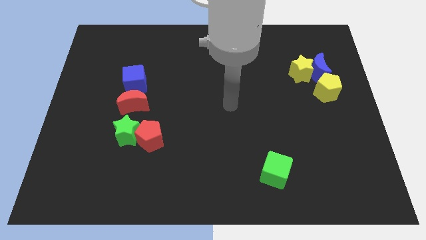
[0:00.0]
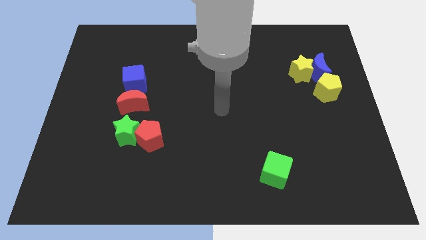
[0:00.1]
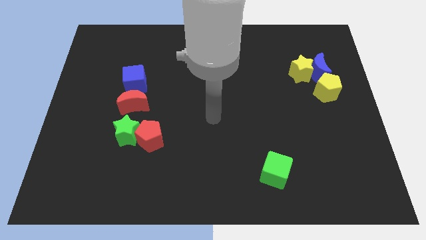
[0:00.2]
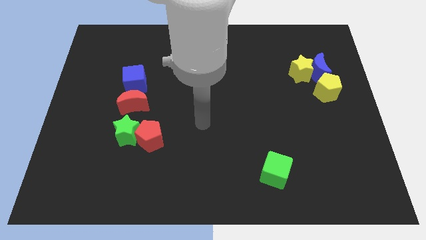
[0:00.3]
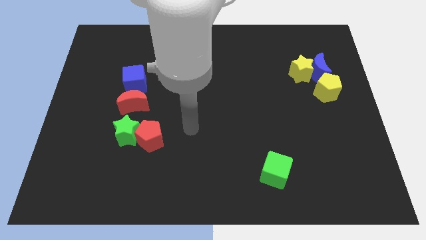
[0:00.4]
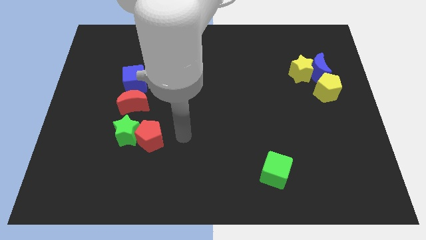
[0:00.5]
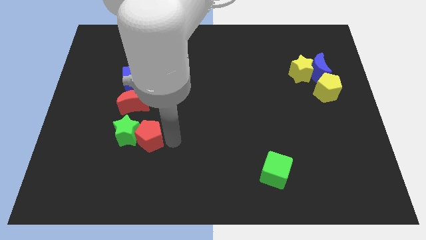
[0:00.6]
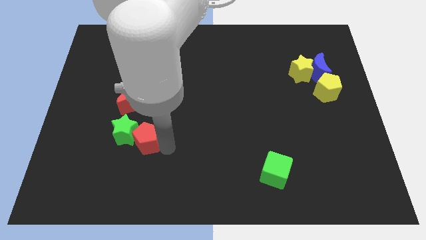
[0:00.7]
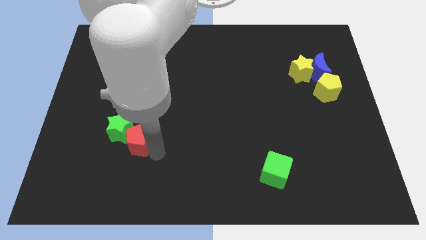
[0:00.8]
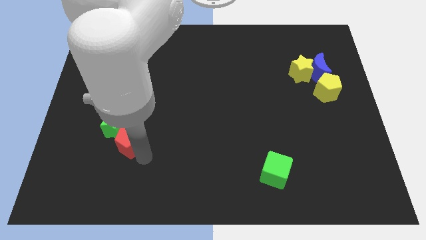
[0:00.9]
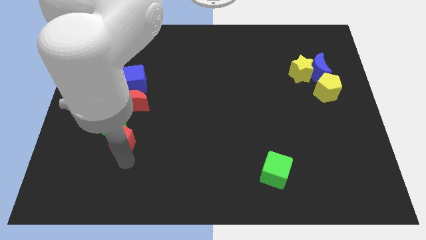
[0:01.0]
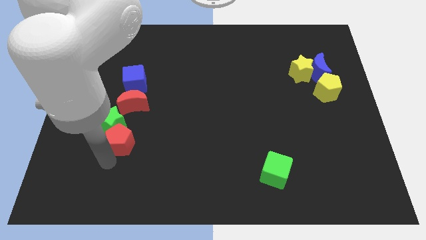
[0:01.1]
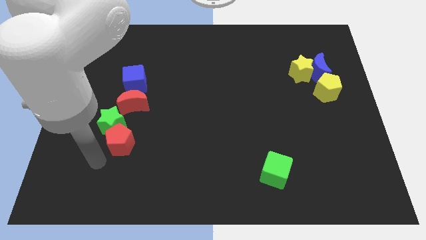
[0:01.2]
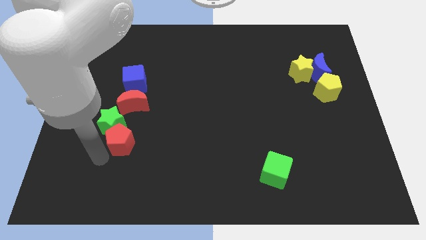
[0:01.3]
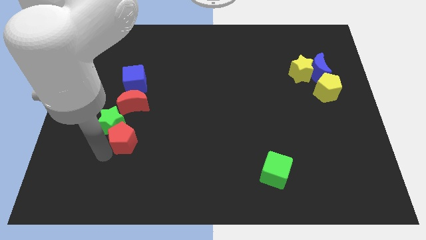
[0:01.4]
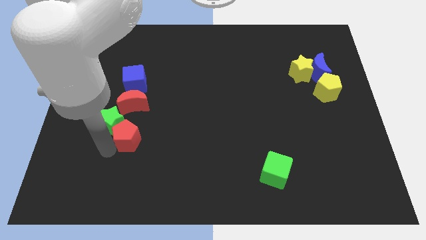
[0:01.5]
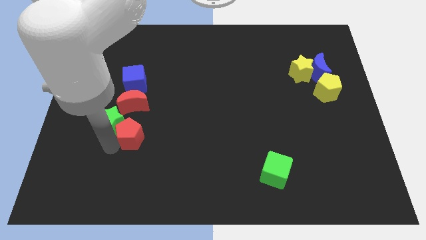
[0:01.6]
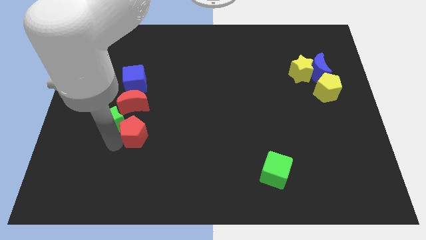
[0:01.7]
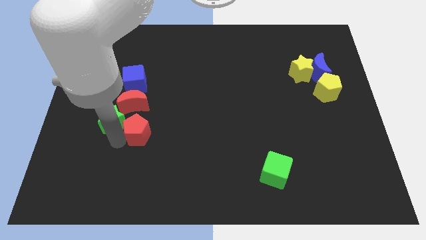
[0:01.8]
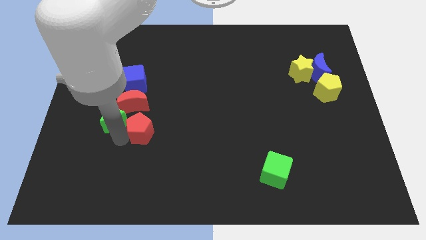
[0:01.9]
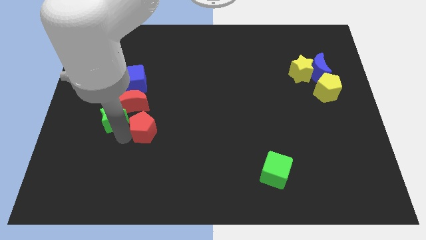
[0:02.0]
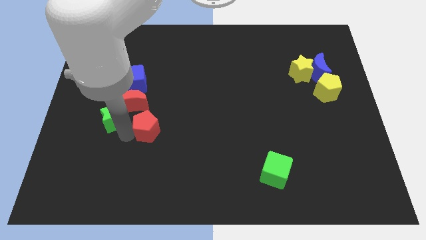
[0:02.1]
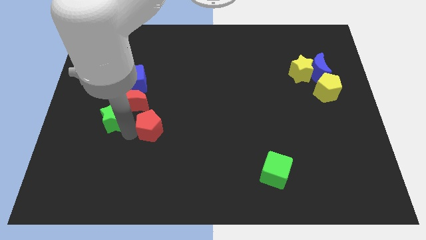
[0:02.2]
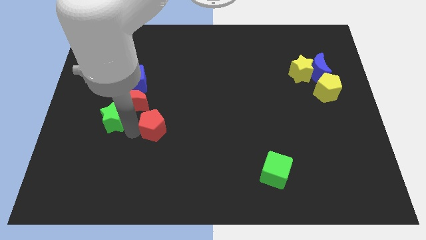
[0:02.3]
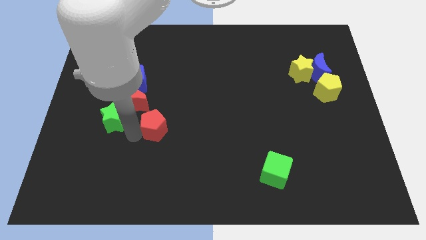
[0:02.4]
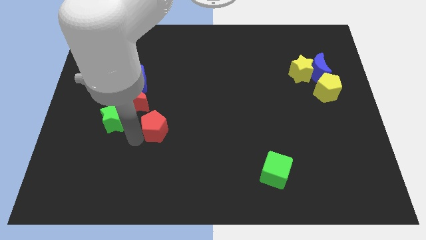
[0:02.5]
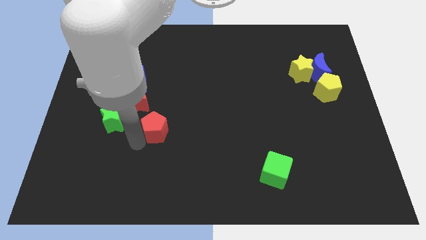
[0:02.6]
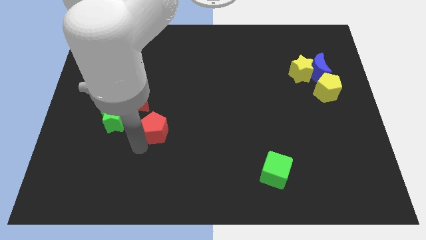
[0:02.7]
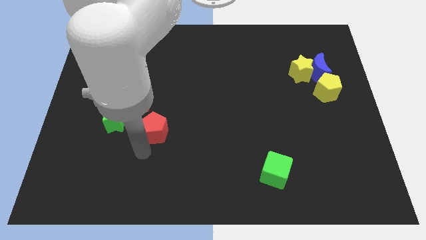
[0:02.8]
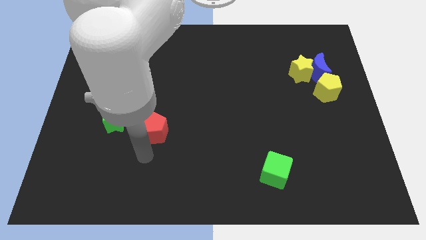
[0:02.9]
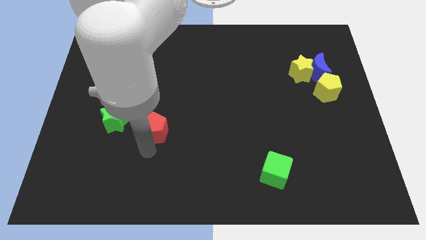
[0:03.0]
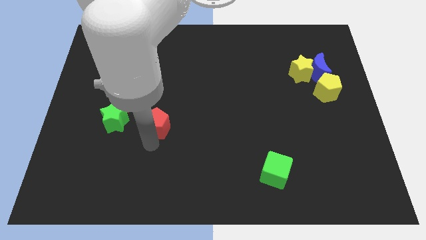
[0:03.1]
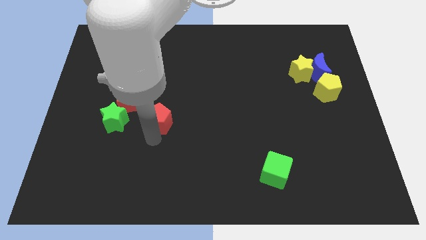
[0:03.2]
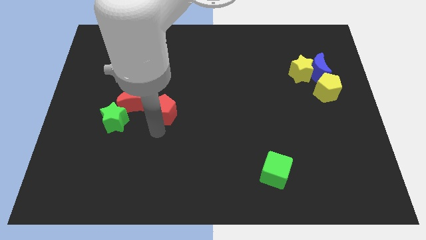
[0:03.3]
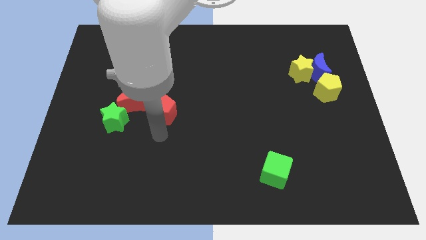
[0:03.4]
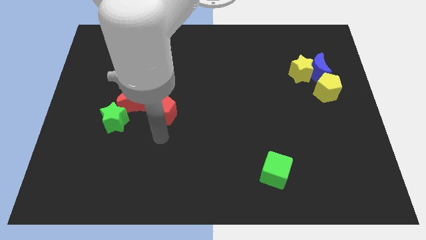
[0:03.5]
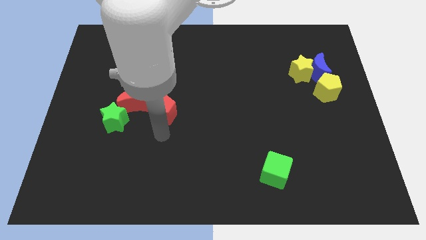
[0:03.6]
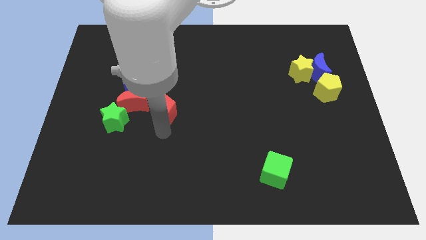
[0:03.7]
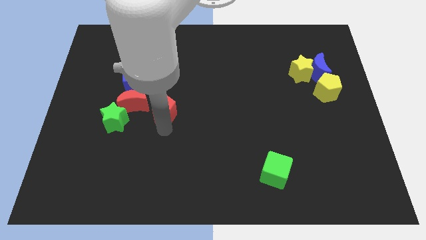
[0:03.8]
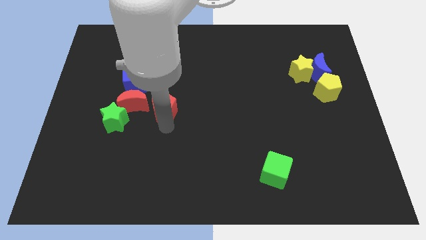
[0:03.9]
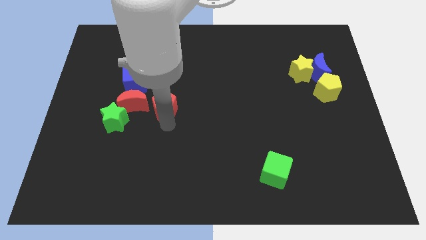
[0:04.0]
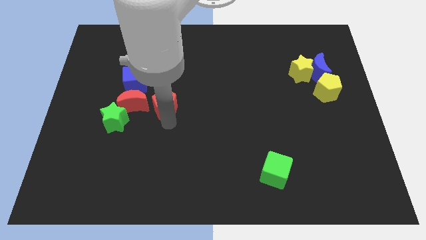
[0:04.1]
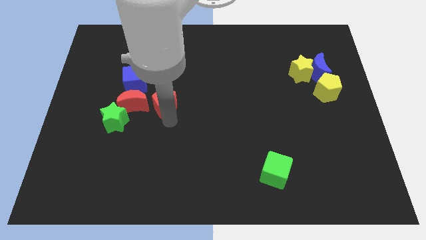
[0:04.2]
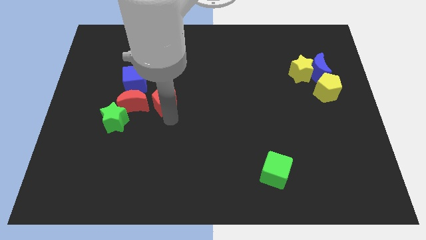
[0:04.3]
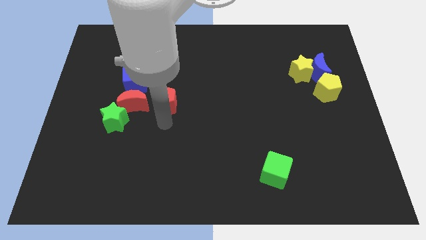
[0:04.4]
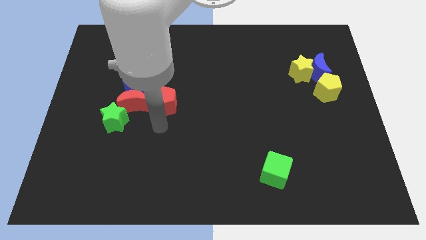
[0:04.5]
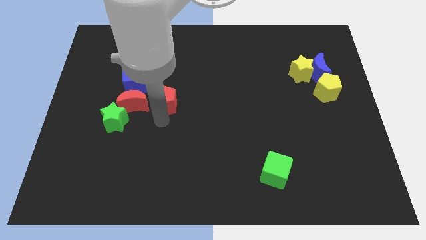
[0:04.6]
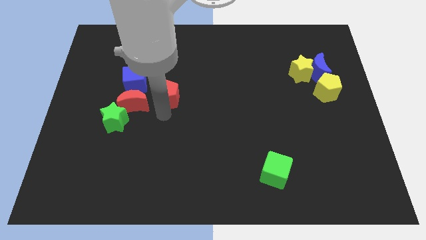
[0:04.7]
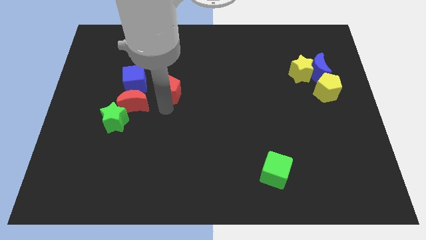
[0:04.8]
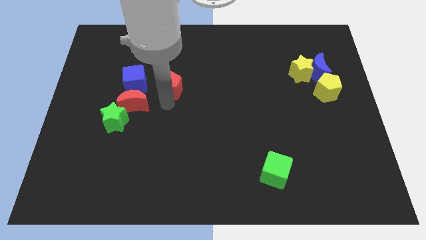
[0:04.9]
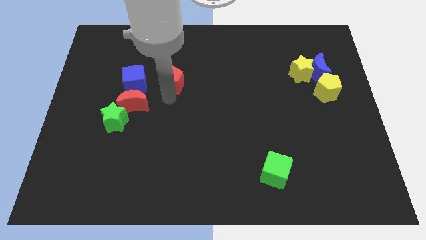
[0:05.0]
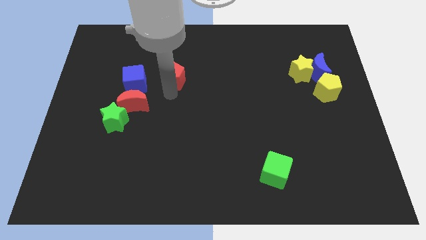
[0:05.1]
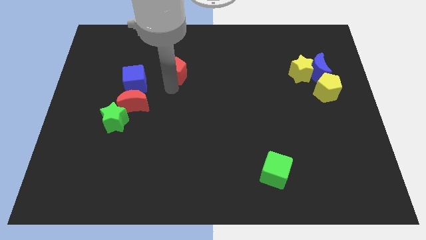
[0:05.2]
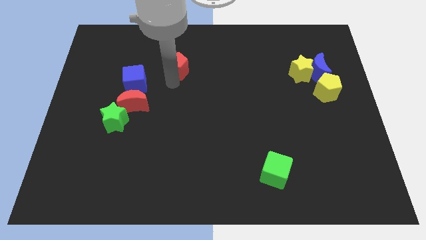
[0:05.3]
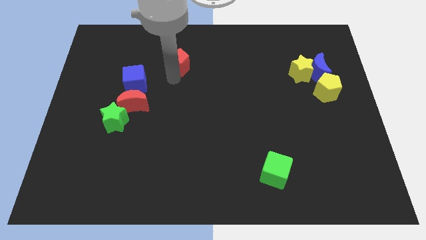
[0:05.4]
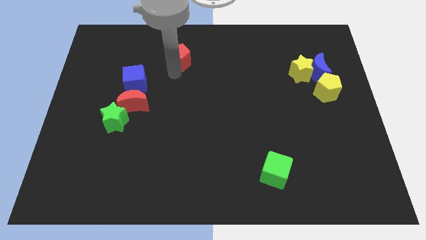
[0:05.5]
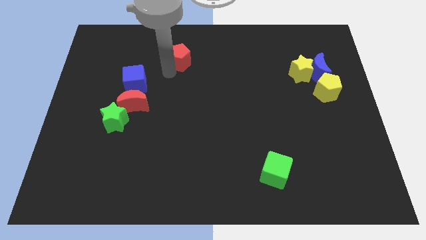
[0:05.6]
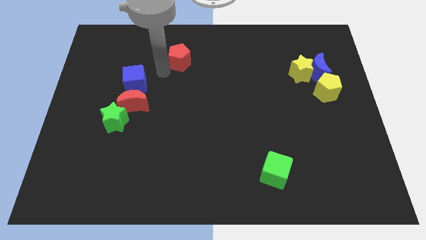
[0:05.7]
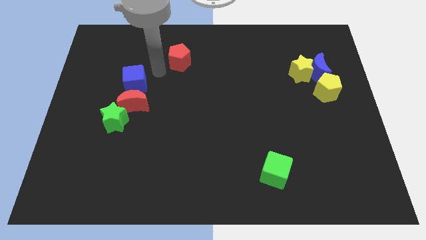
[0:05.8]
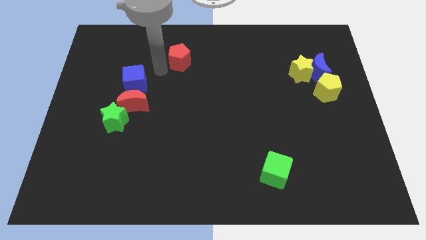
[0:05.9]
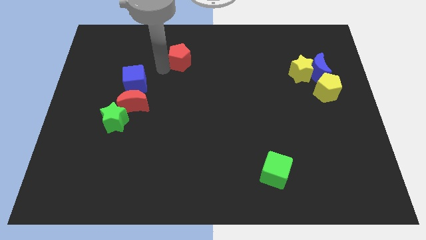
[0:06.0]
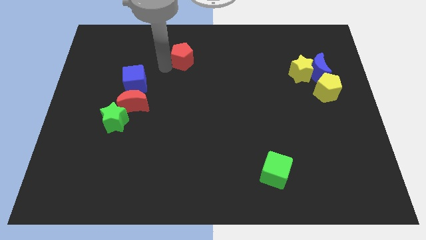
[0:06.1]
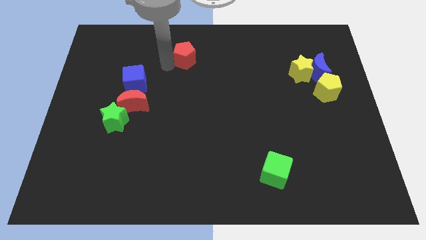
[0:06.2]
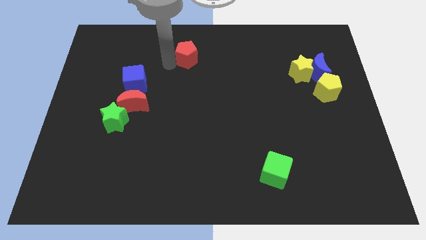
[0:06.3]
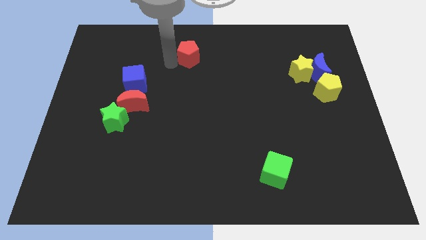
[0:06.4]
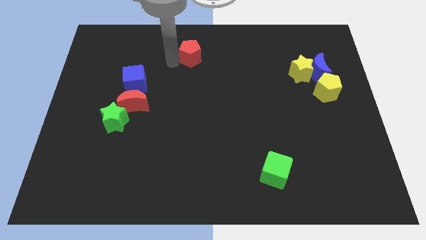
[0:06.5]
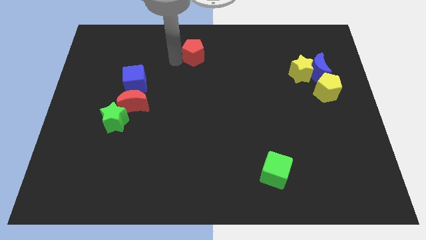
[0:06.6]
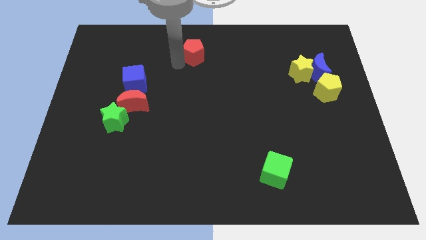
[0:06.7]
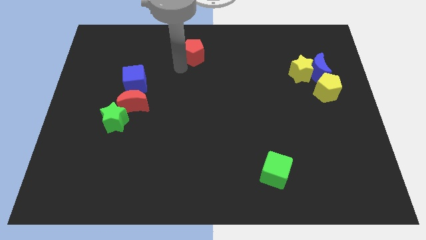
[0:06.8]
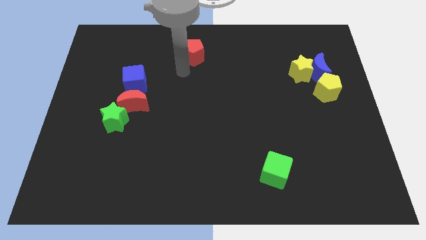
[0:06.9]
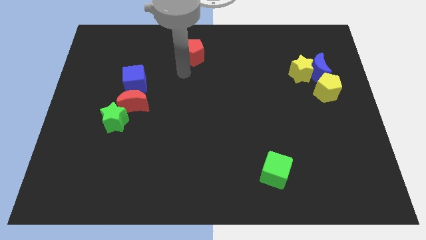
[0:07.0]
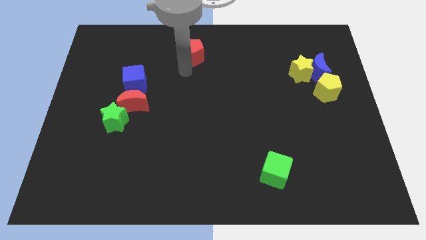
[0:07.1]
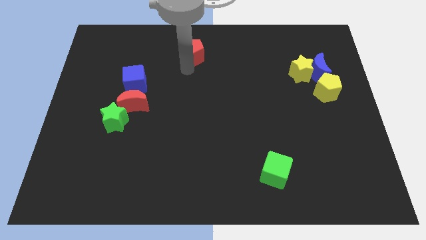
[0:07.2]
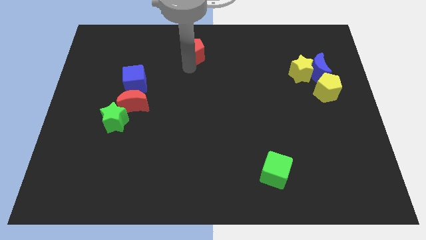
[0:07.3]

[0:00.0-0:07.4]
put the red pentagon to the towards your base

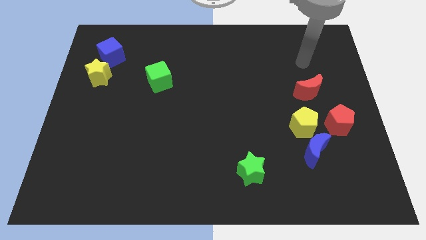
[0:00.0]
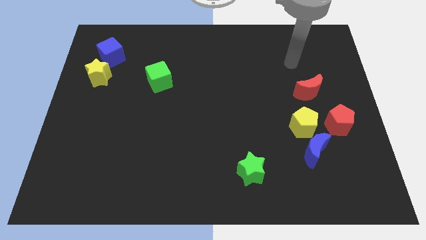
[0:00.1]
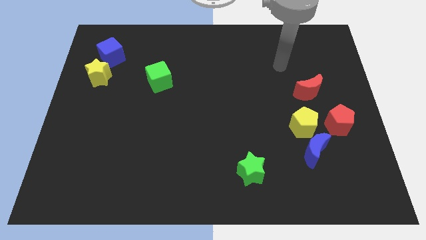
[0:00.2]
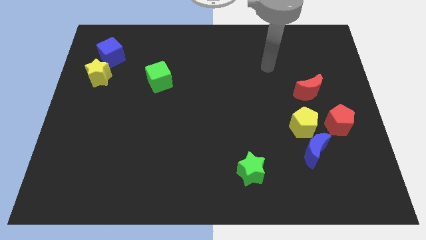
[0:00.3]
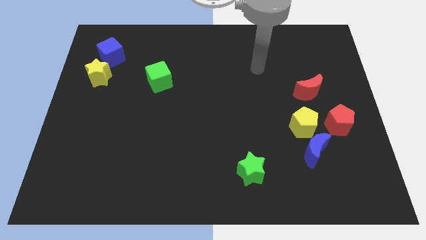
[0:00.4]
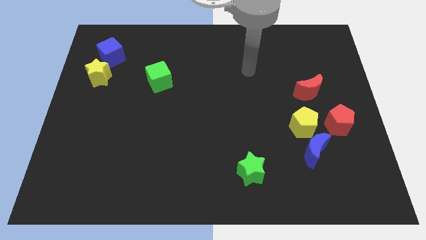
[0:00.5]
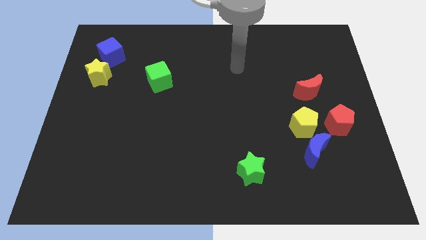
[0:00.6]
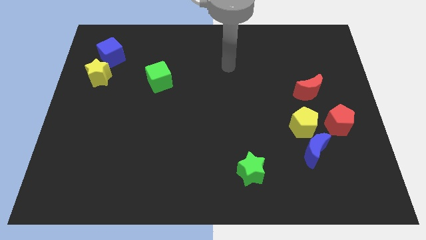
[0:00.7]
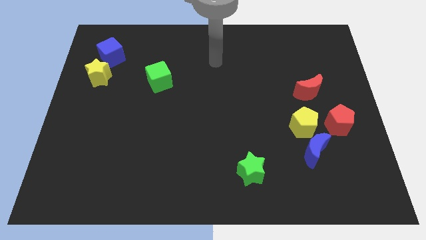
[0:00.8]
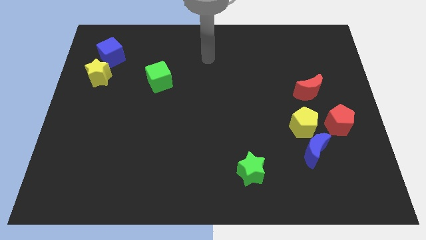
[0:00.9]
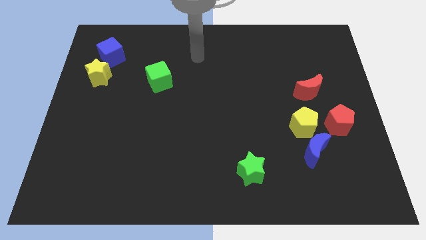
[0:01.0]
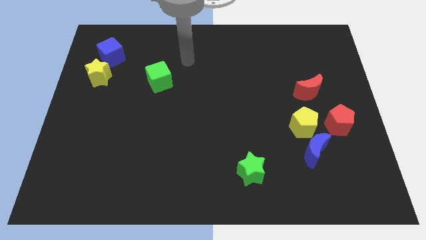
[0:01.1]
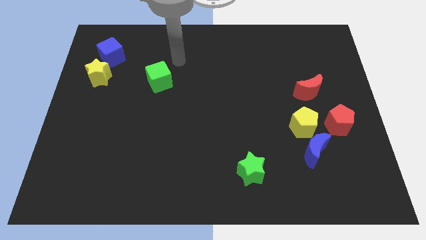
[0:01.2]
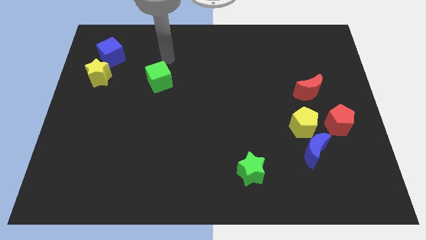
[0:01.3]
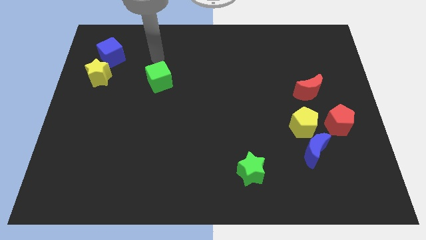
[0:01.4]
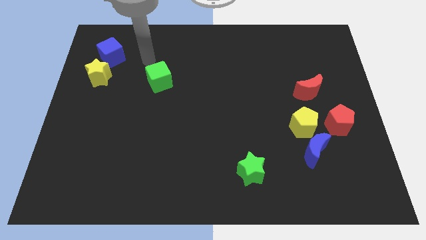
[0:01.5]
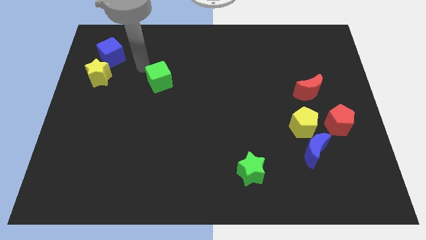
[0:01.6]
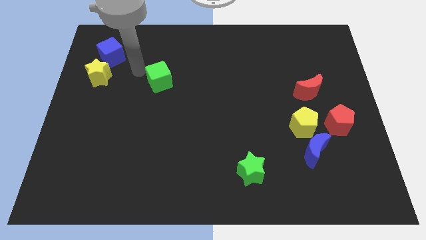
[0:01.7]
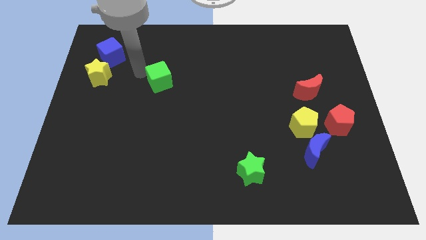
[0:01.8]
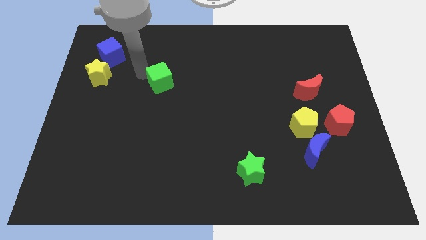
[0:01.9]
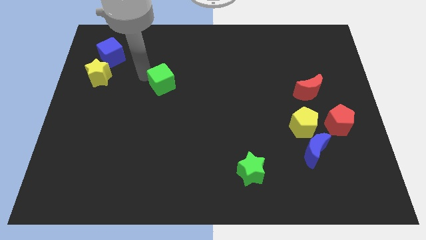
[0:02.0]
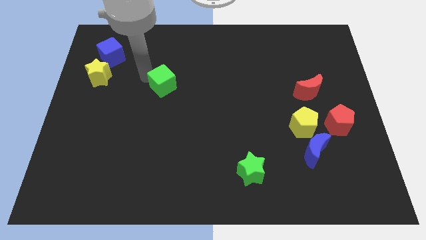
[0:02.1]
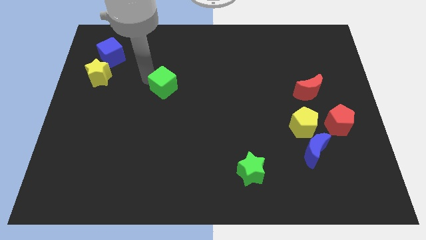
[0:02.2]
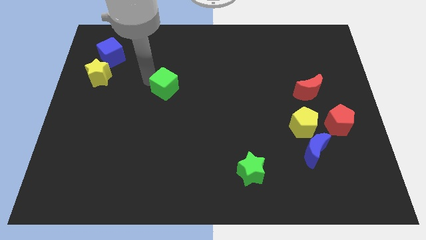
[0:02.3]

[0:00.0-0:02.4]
put the green cube to the center of the board
